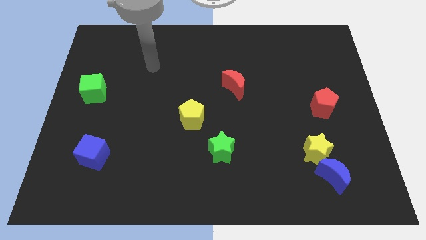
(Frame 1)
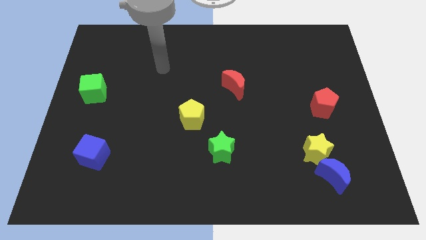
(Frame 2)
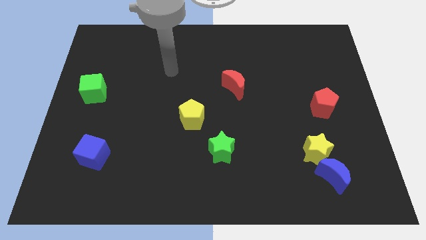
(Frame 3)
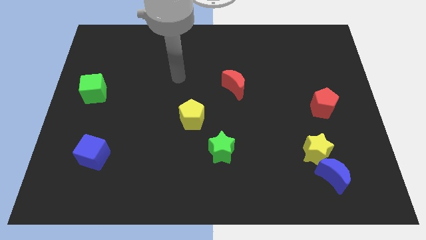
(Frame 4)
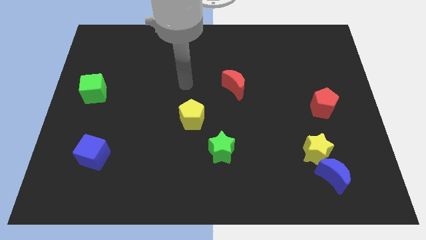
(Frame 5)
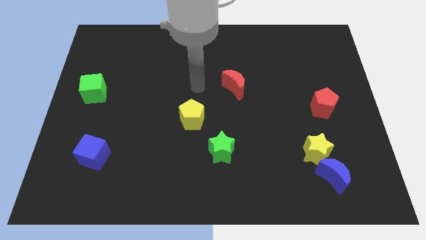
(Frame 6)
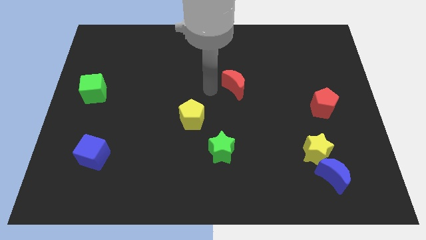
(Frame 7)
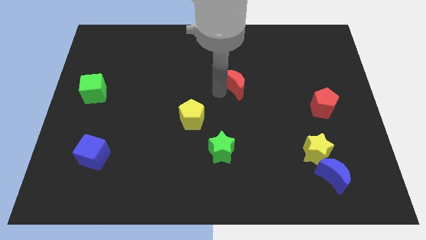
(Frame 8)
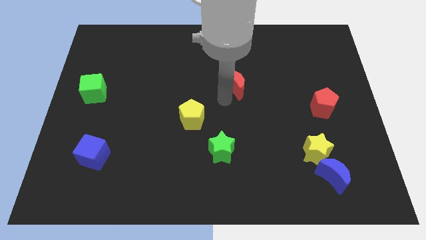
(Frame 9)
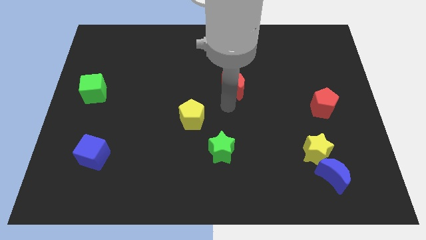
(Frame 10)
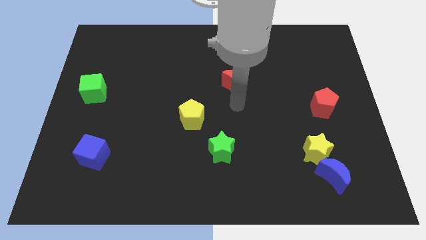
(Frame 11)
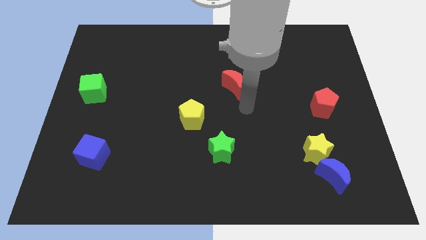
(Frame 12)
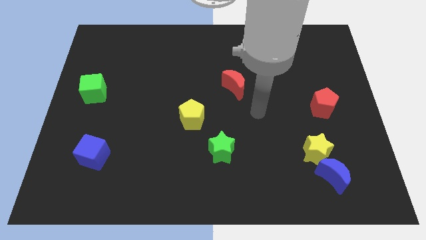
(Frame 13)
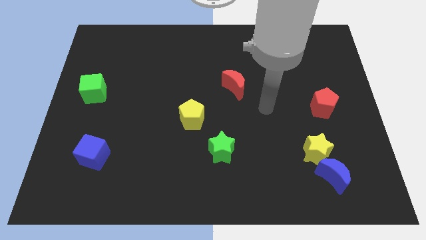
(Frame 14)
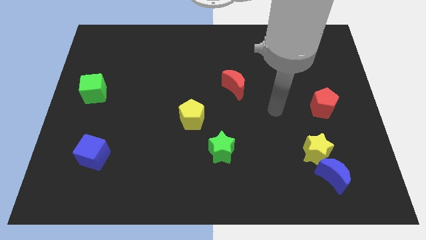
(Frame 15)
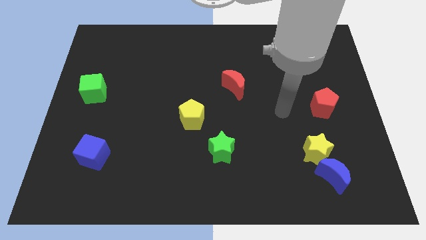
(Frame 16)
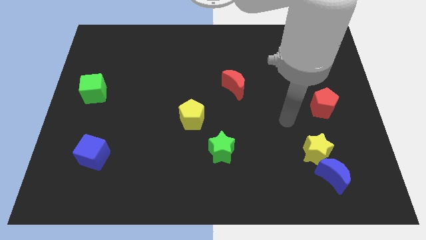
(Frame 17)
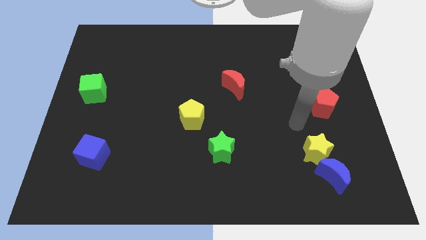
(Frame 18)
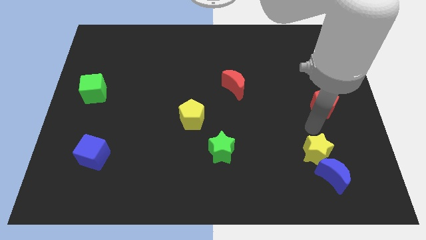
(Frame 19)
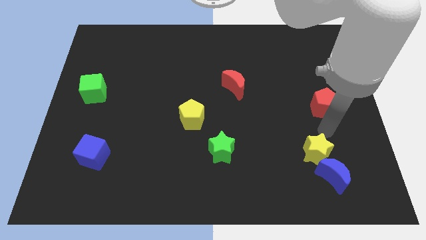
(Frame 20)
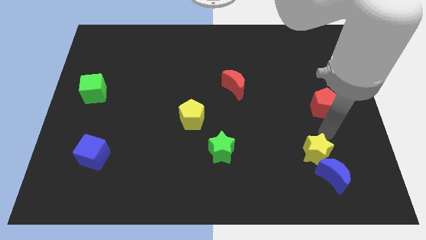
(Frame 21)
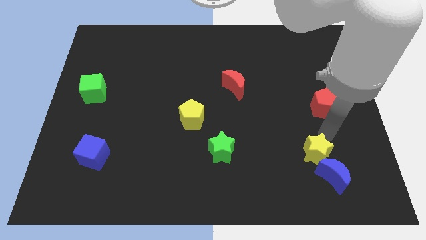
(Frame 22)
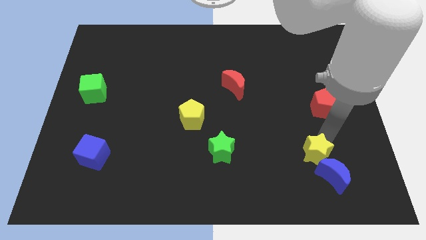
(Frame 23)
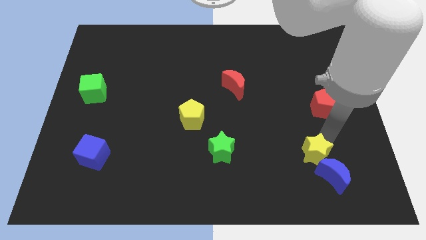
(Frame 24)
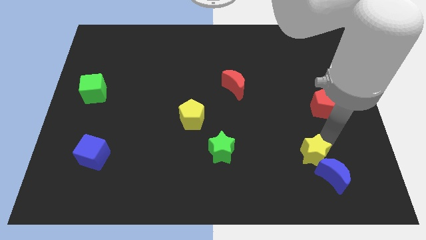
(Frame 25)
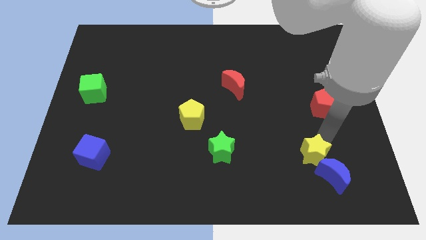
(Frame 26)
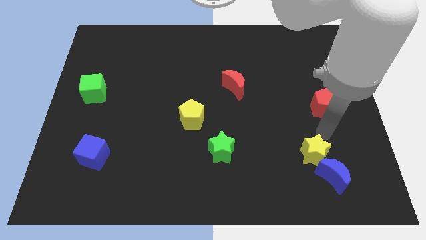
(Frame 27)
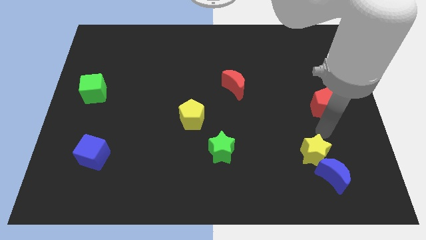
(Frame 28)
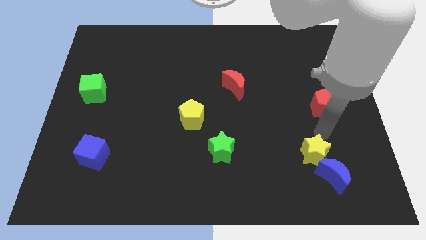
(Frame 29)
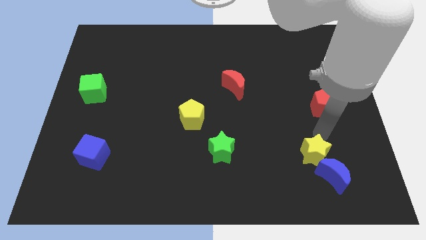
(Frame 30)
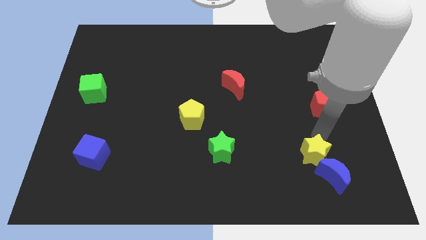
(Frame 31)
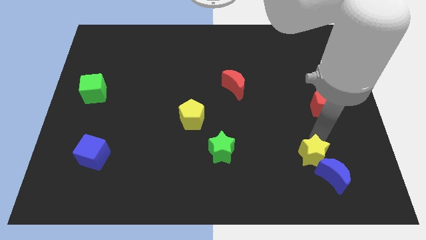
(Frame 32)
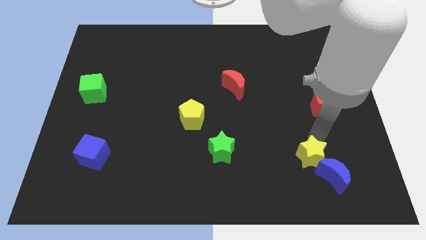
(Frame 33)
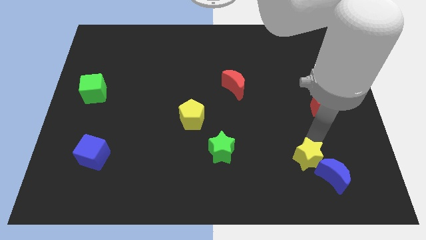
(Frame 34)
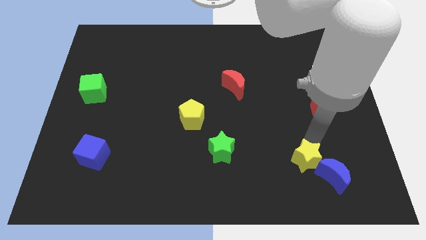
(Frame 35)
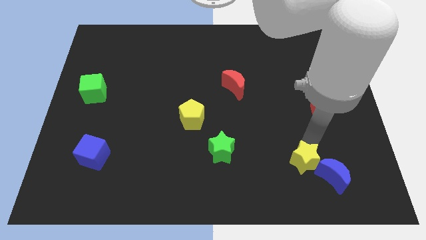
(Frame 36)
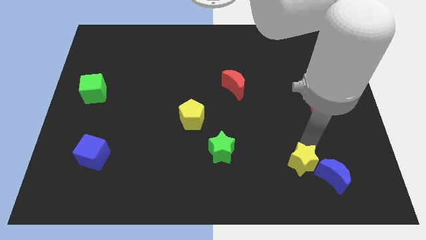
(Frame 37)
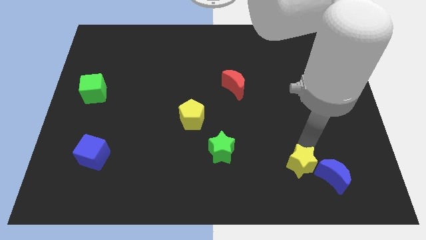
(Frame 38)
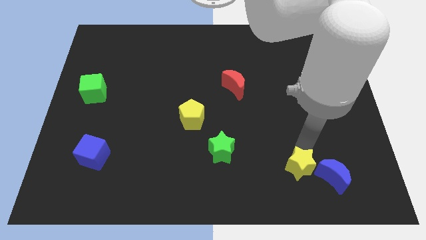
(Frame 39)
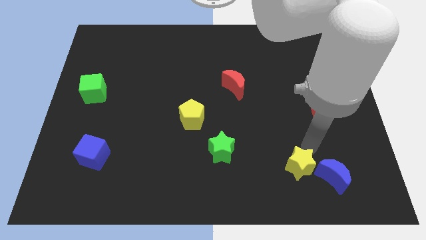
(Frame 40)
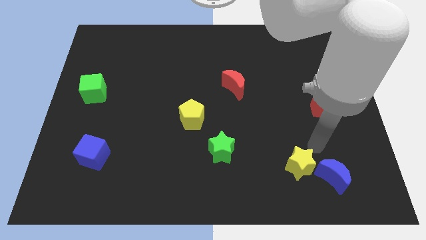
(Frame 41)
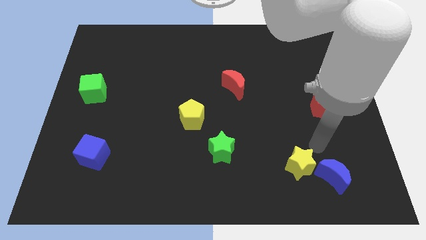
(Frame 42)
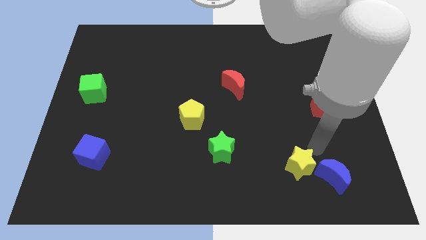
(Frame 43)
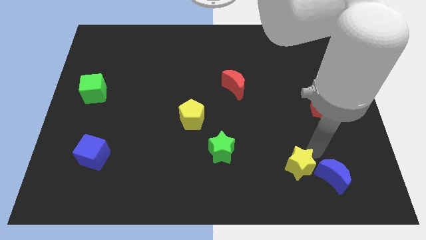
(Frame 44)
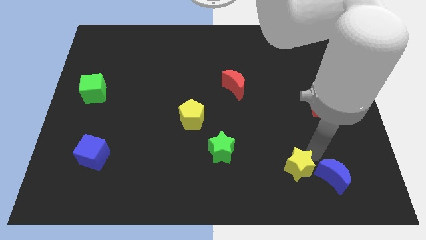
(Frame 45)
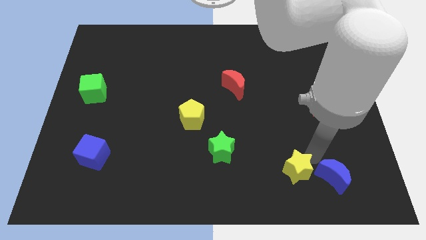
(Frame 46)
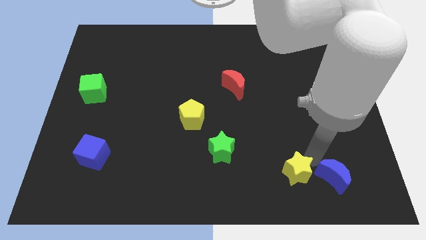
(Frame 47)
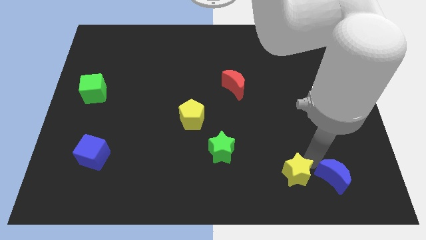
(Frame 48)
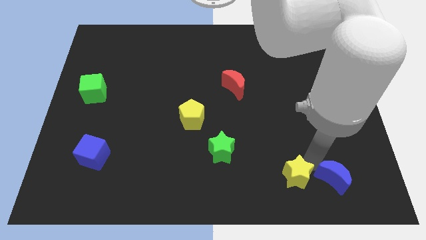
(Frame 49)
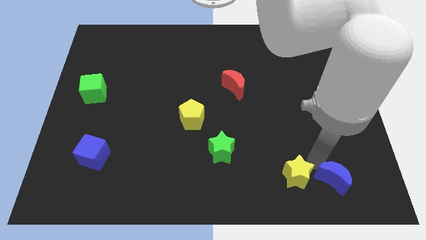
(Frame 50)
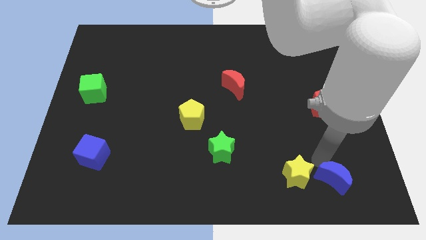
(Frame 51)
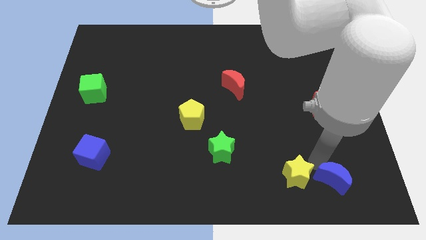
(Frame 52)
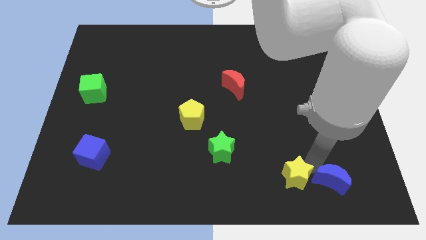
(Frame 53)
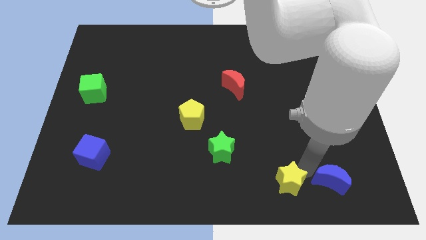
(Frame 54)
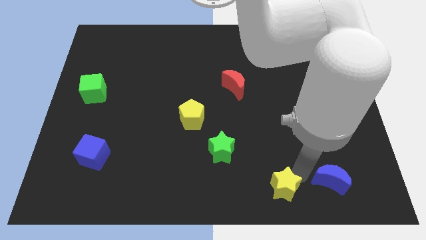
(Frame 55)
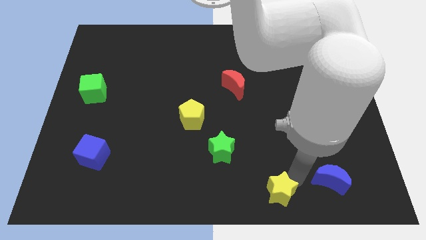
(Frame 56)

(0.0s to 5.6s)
slide the yellow star to the bottom side

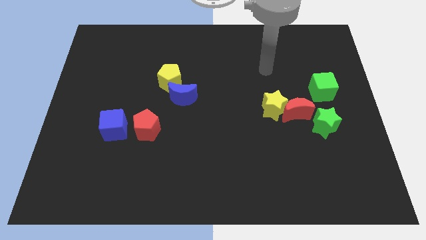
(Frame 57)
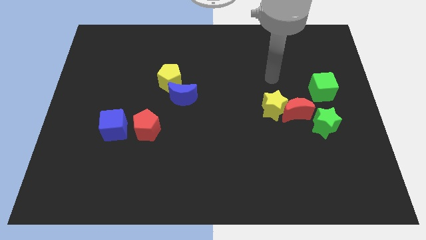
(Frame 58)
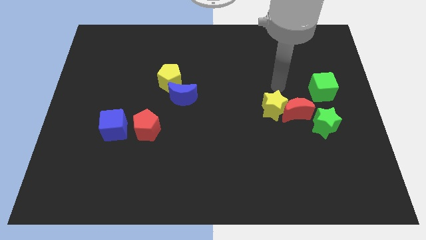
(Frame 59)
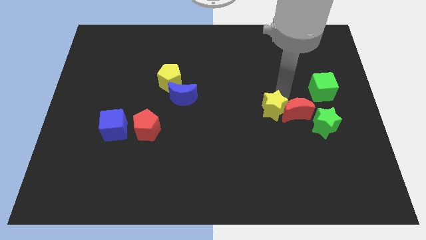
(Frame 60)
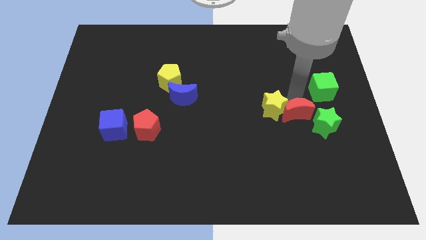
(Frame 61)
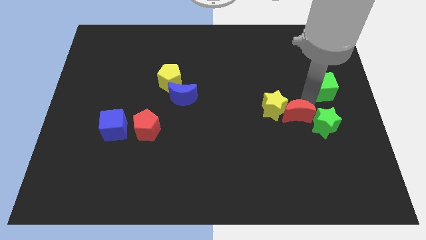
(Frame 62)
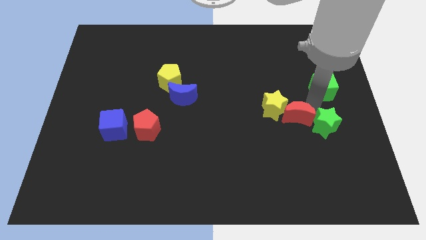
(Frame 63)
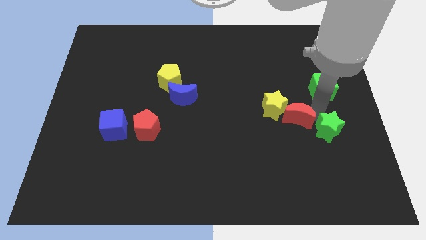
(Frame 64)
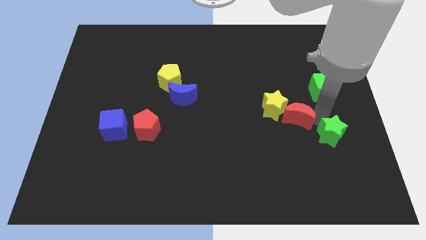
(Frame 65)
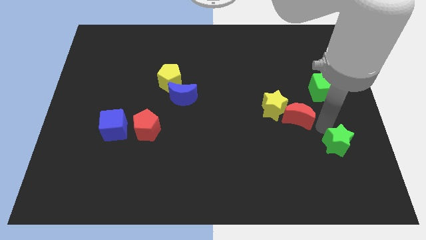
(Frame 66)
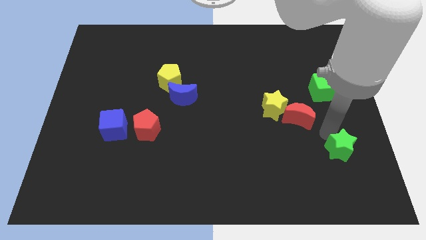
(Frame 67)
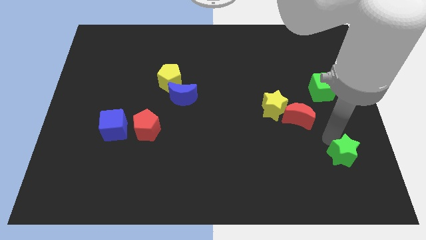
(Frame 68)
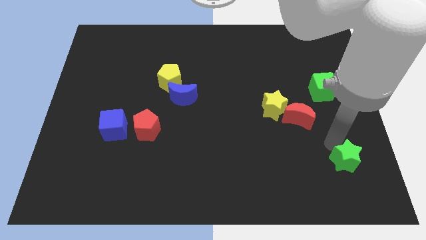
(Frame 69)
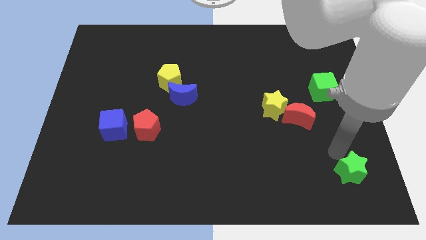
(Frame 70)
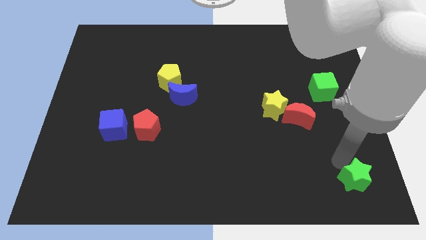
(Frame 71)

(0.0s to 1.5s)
move the green star to the bottom right of the board

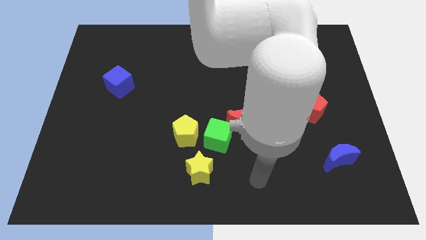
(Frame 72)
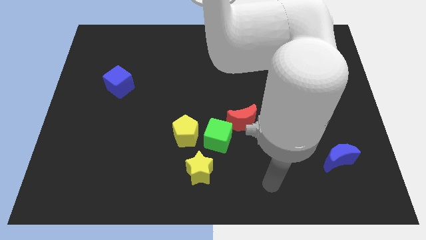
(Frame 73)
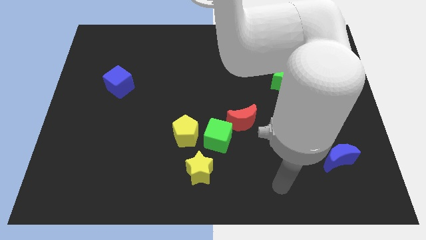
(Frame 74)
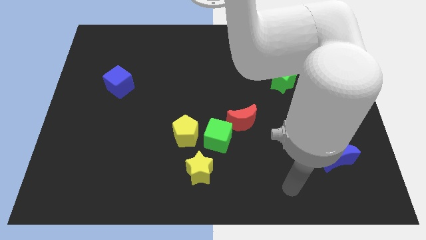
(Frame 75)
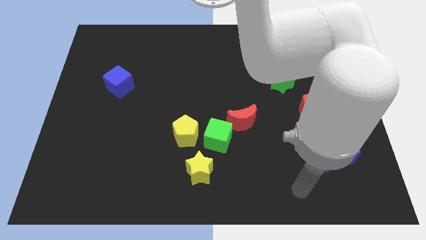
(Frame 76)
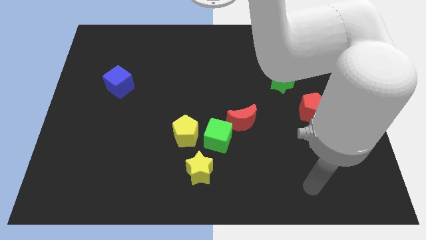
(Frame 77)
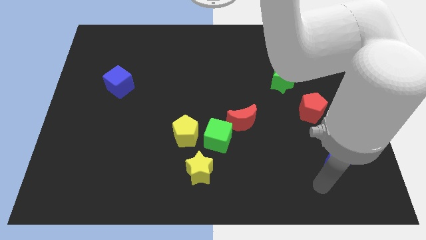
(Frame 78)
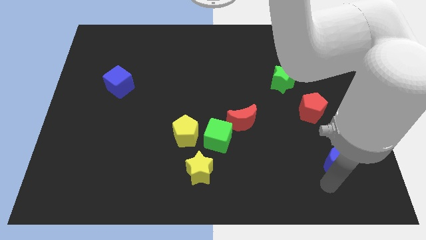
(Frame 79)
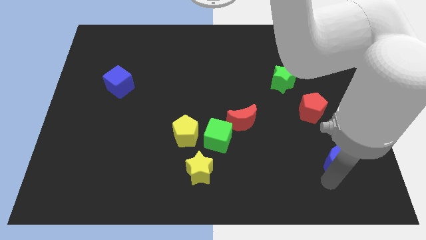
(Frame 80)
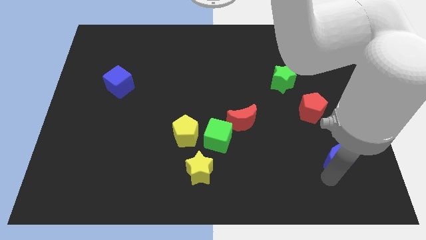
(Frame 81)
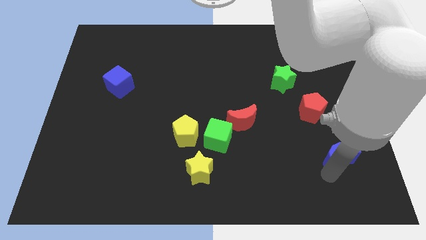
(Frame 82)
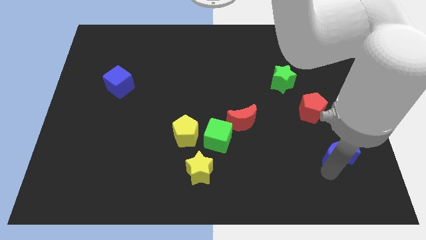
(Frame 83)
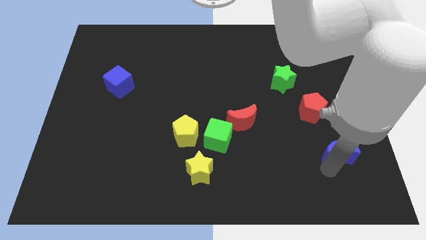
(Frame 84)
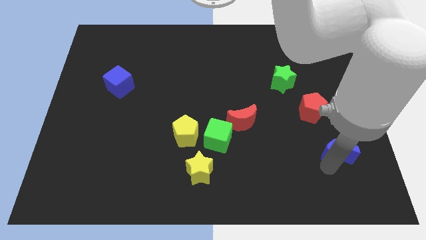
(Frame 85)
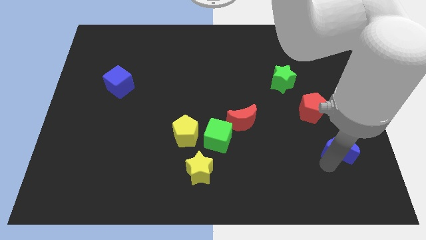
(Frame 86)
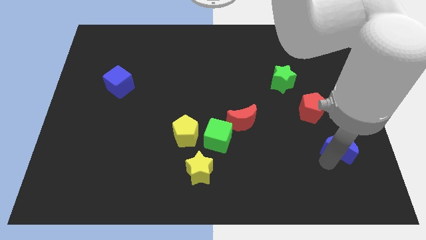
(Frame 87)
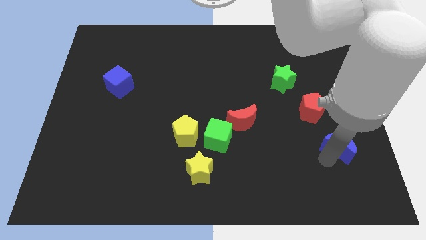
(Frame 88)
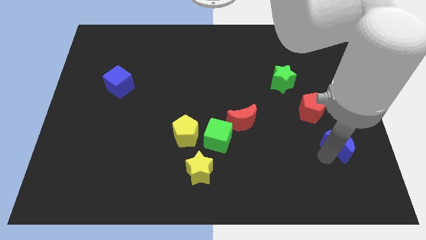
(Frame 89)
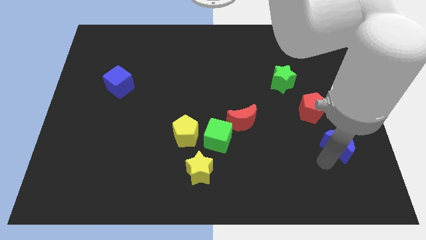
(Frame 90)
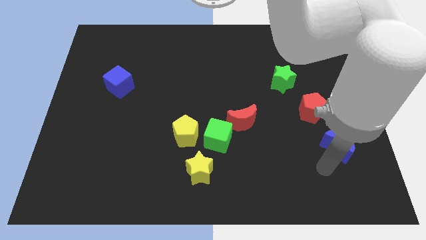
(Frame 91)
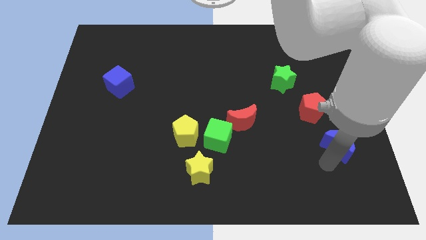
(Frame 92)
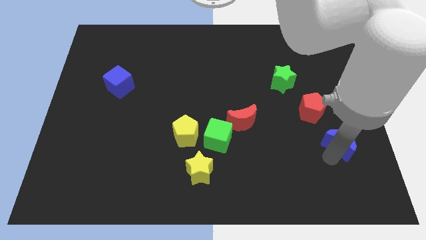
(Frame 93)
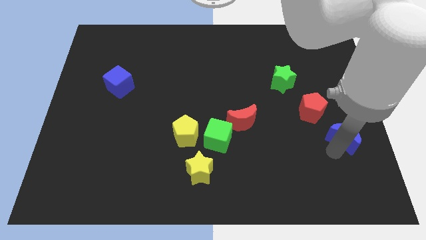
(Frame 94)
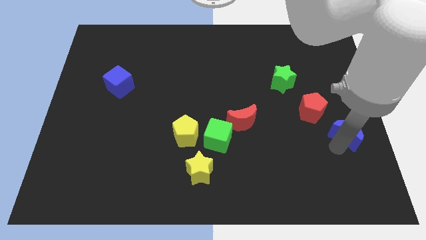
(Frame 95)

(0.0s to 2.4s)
slide the blue moon to the center right
